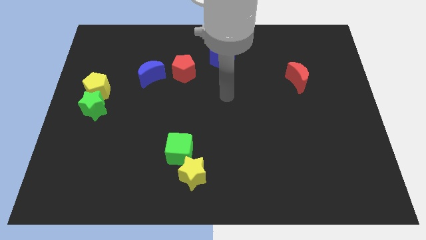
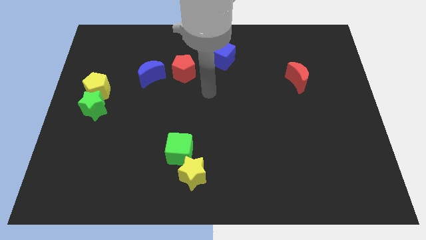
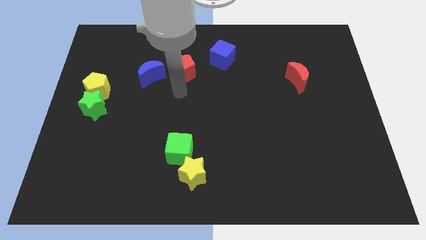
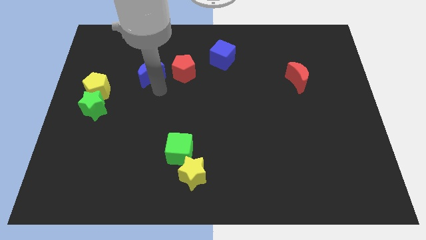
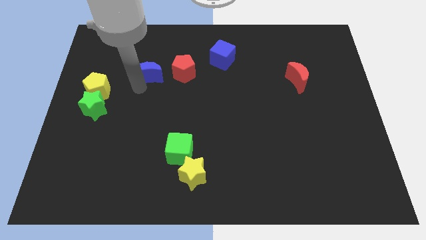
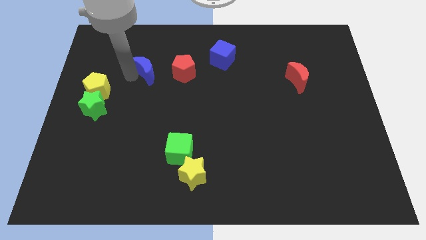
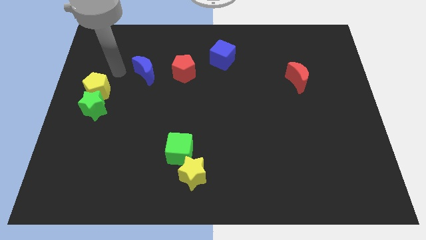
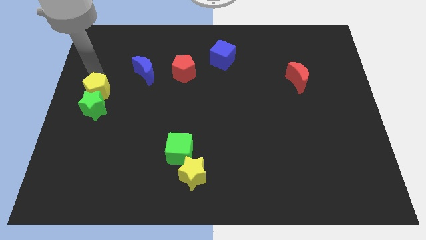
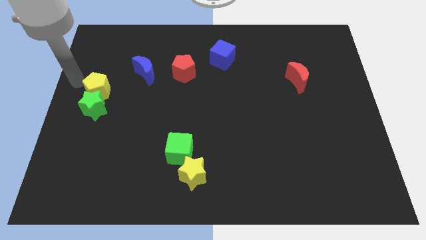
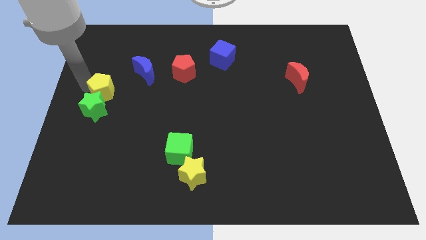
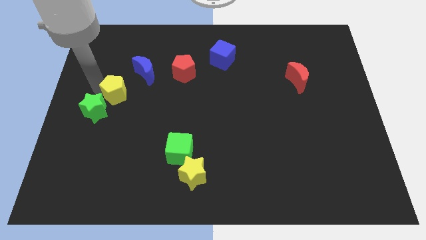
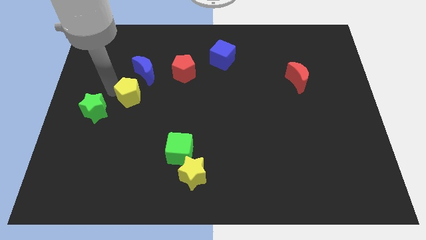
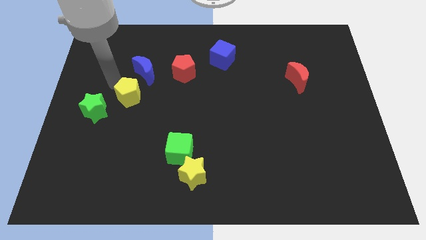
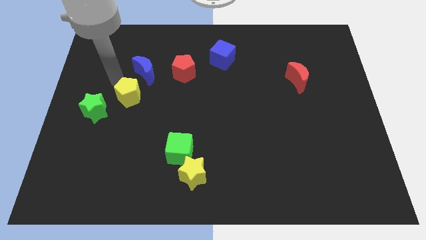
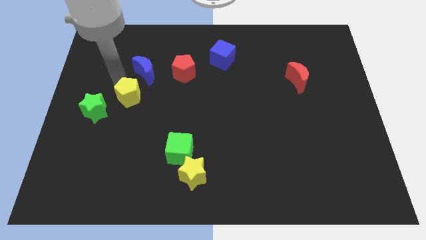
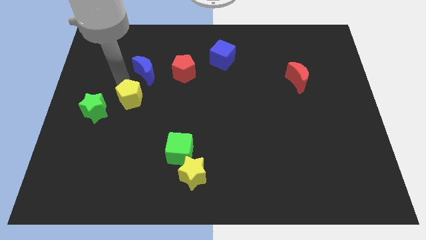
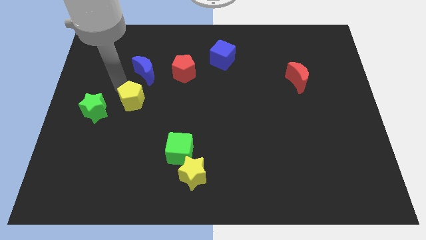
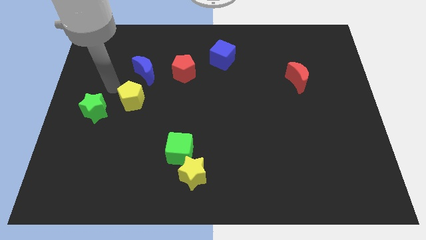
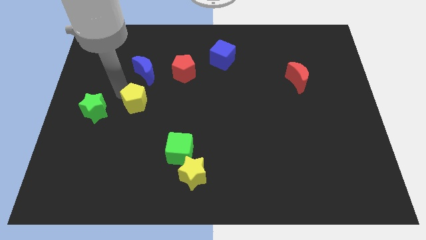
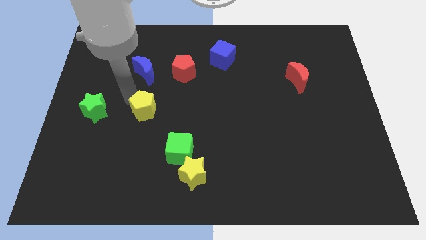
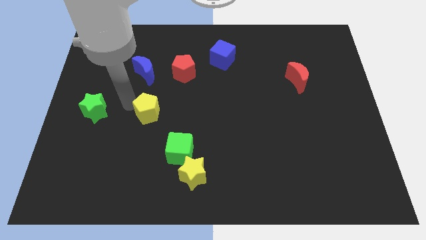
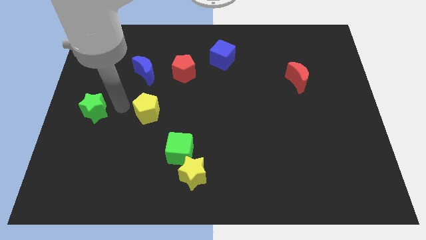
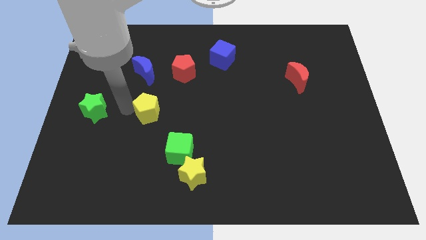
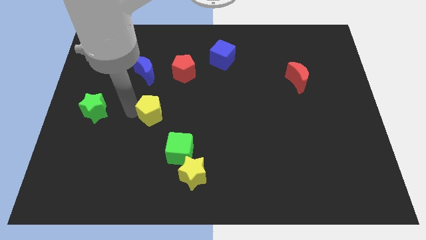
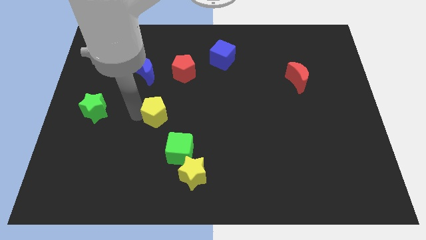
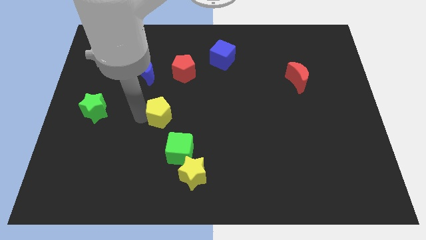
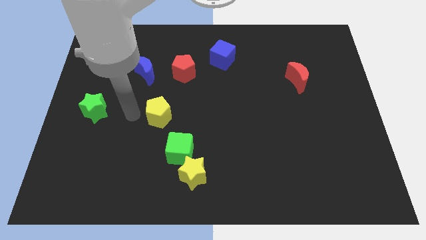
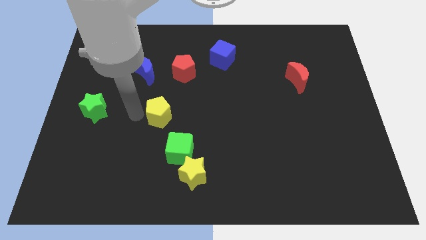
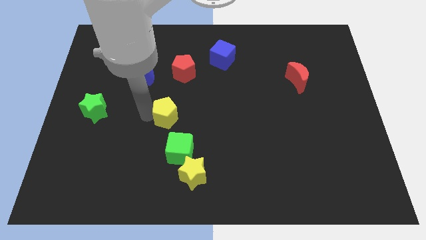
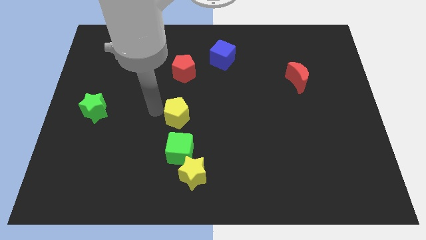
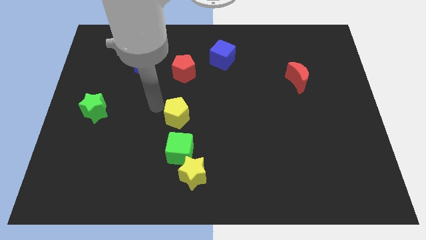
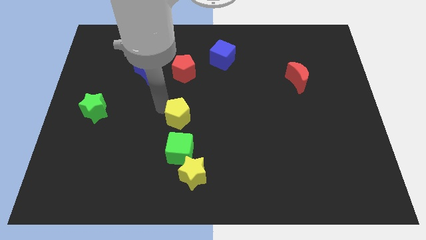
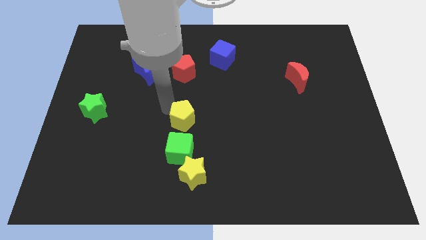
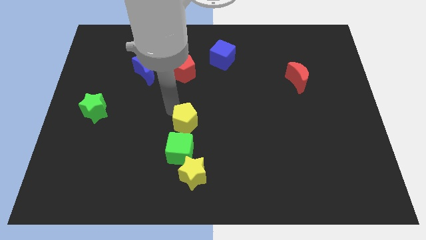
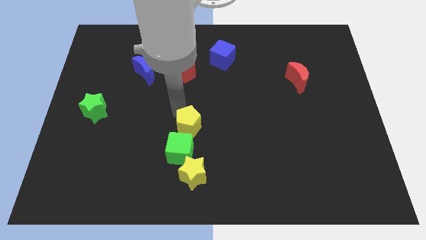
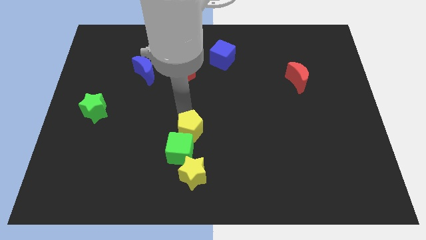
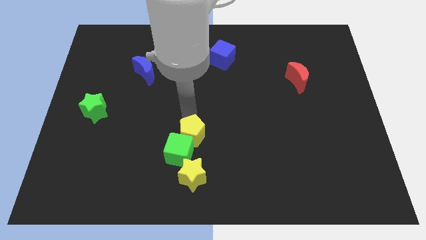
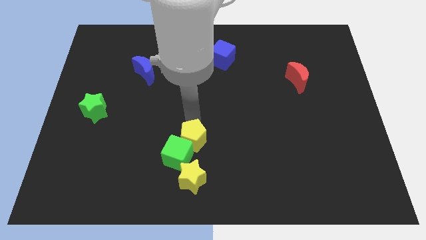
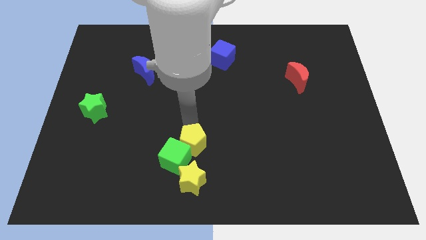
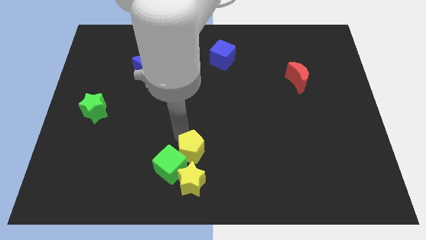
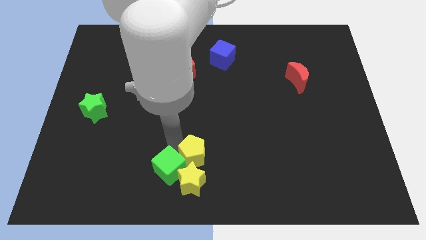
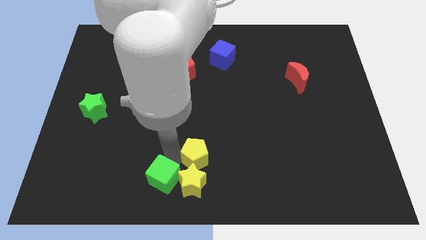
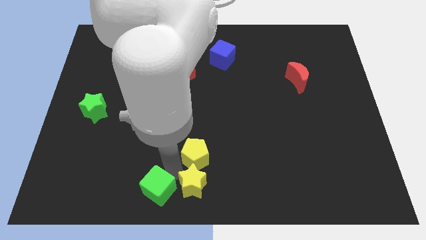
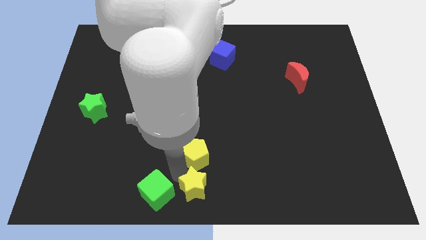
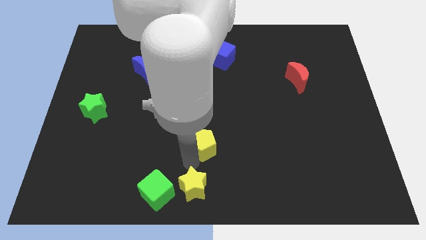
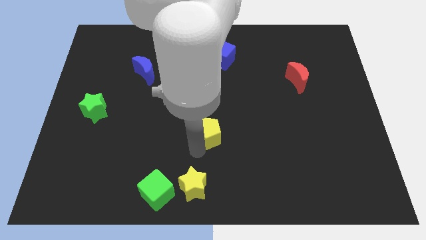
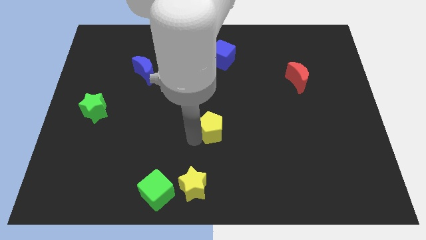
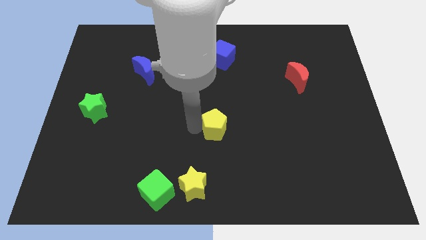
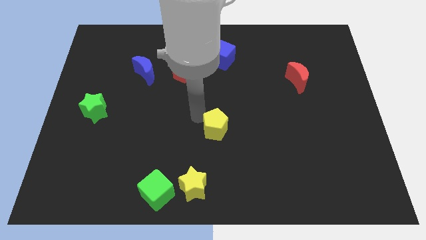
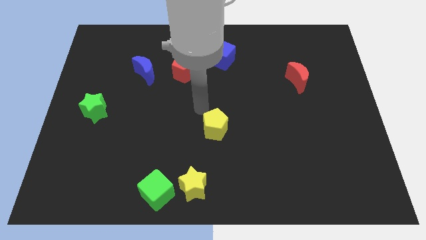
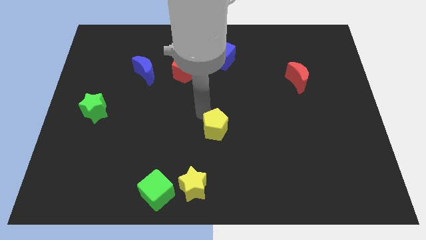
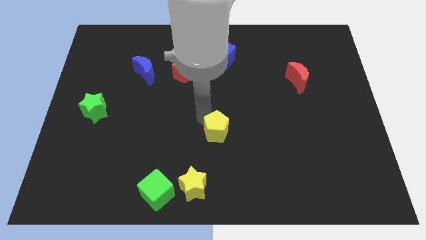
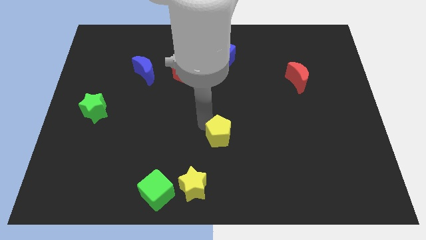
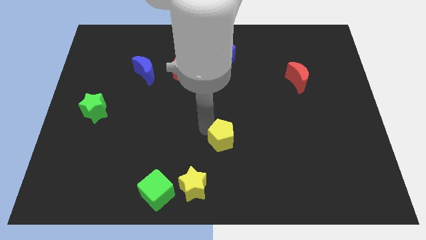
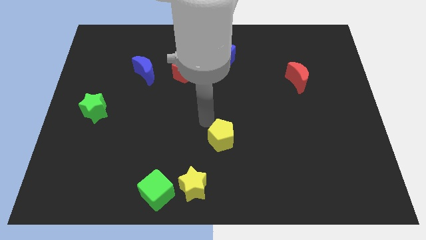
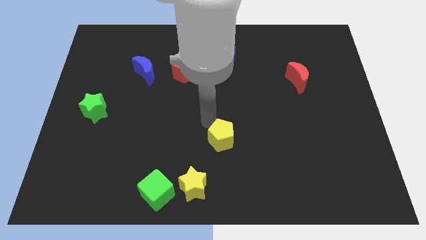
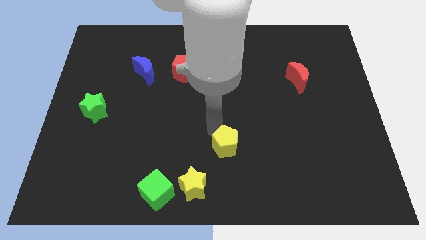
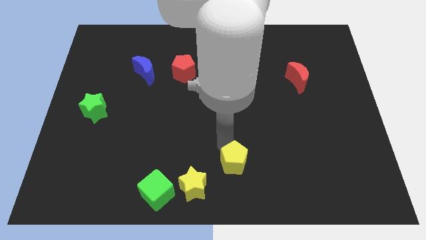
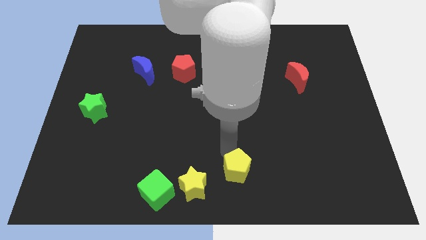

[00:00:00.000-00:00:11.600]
slide the yellow pentagon to the right of the yellow star

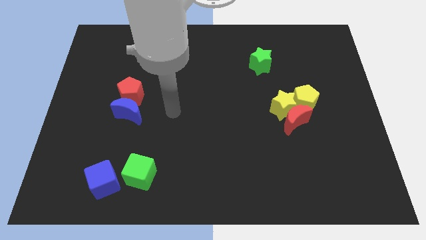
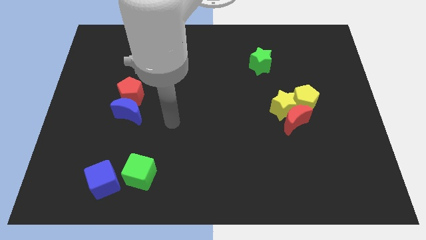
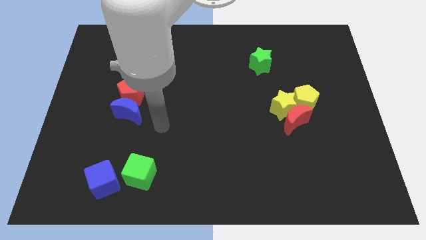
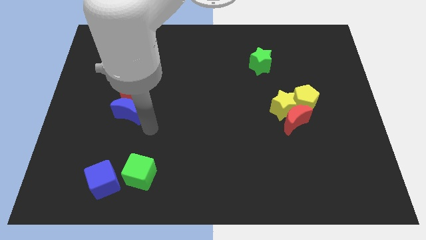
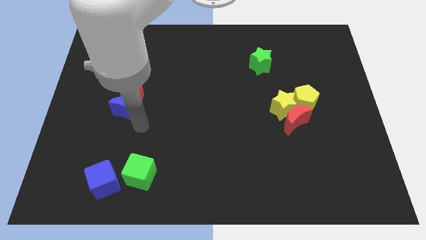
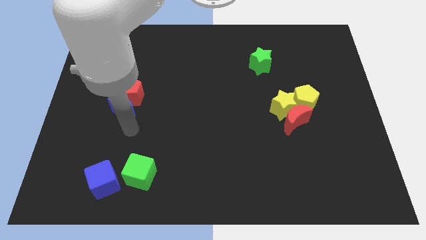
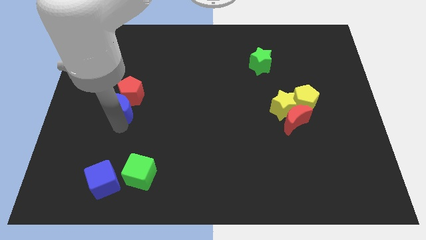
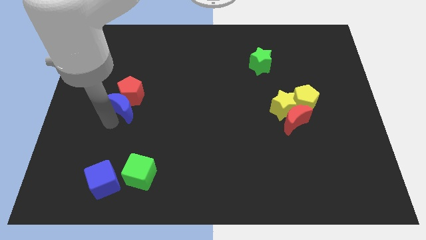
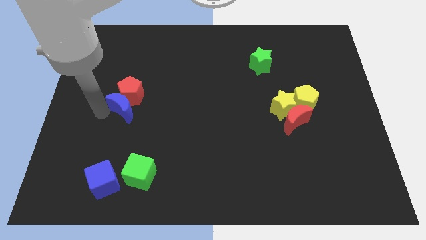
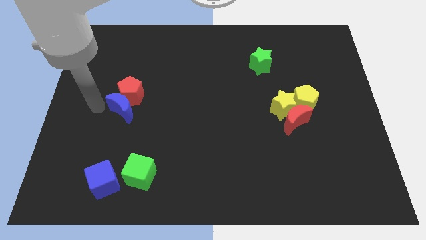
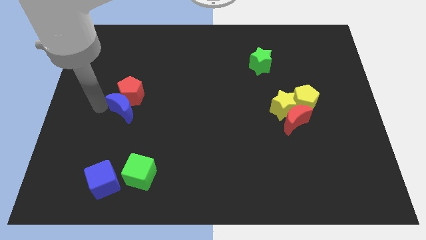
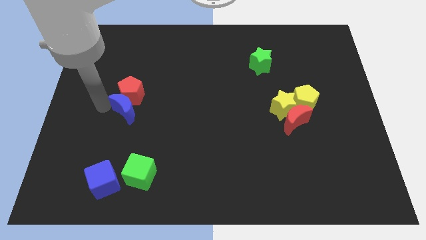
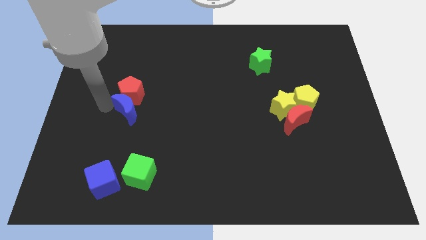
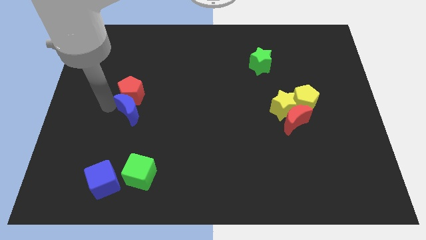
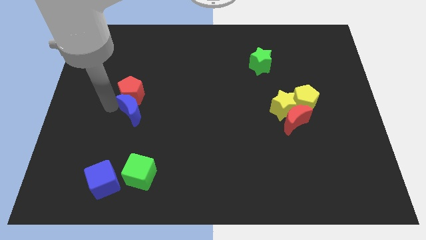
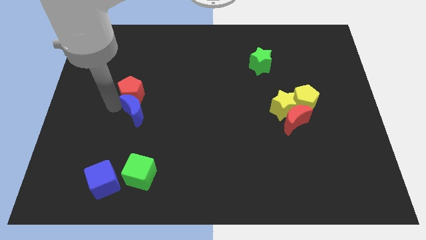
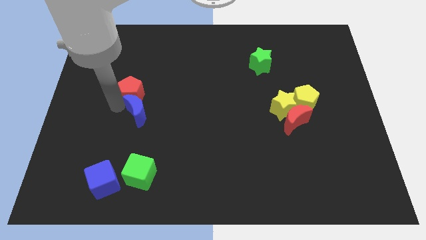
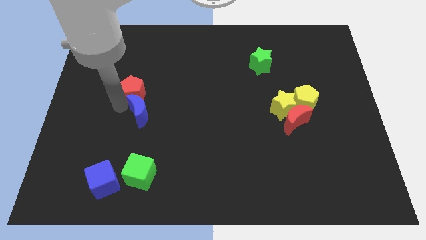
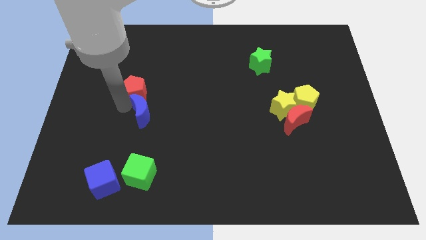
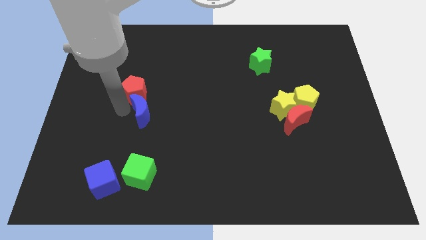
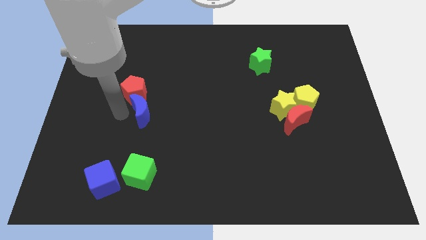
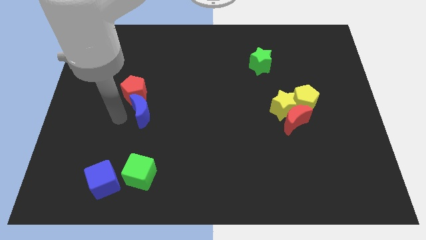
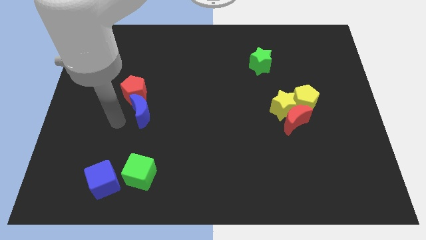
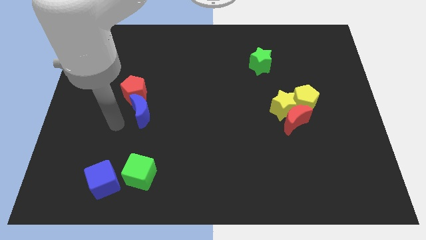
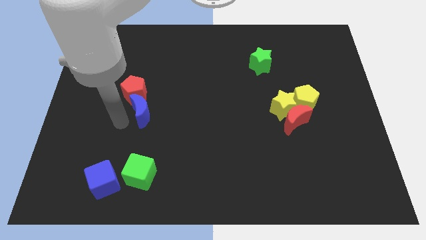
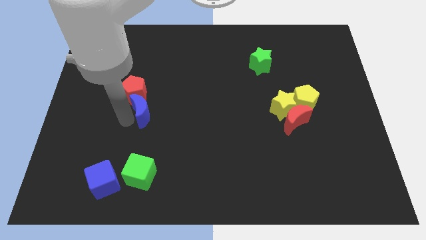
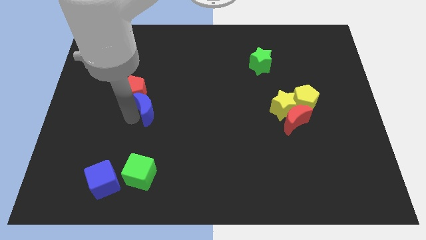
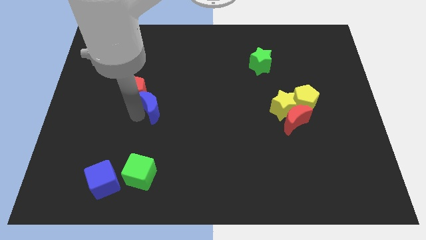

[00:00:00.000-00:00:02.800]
put the blue moon to the right of the red pentagon
